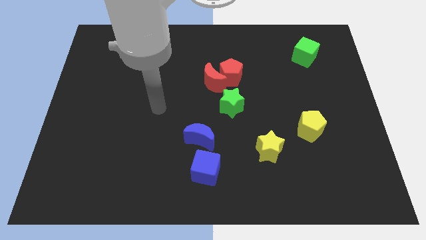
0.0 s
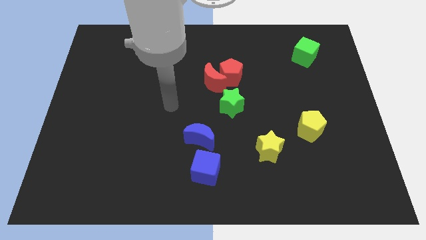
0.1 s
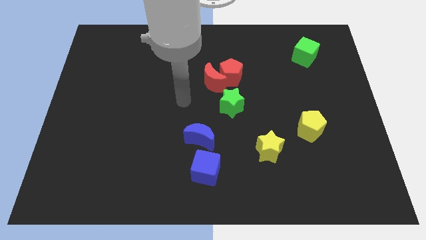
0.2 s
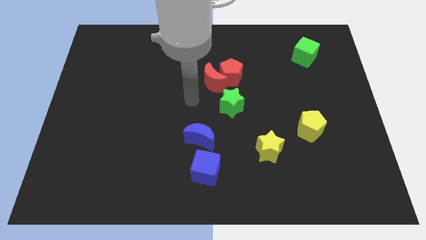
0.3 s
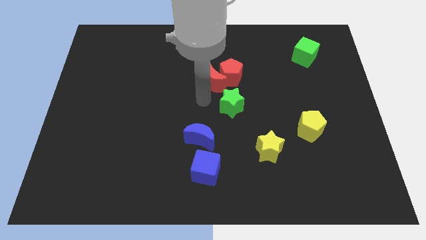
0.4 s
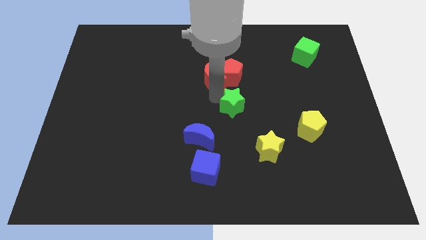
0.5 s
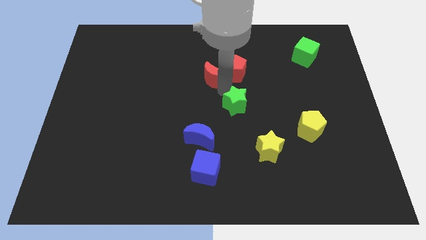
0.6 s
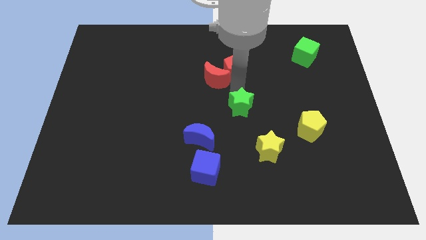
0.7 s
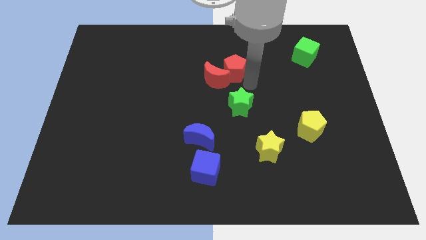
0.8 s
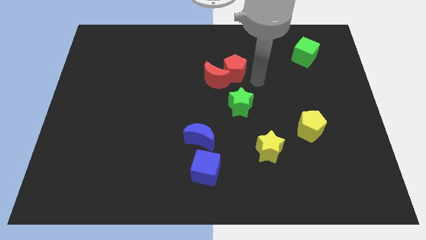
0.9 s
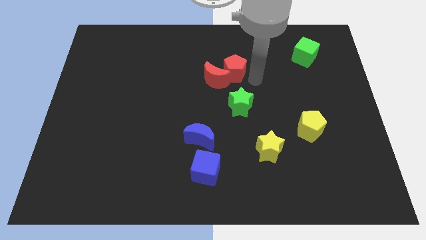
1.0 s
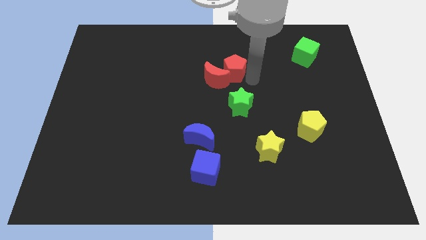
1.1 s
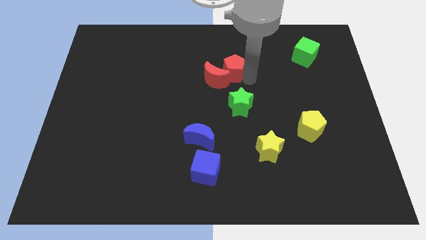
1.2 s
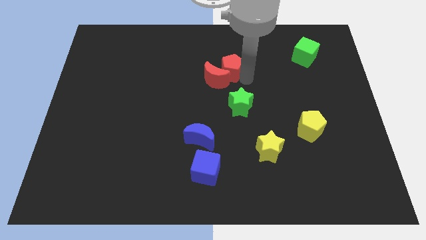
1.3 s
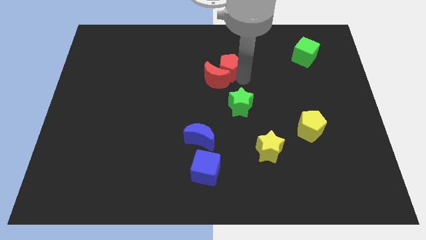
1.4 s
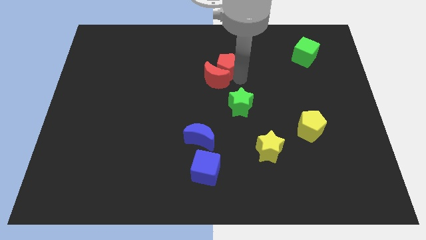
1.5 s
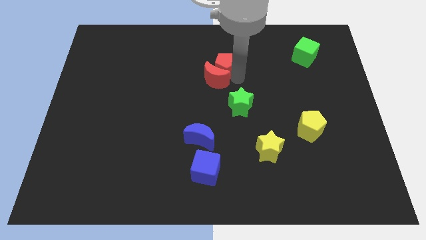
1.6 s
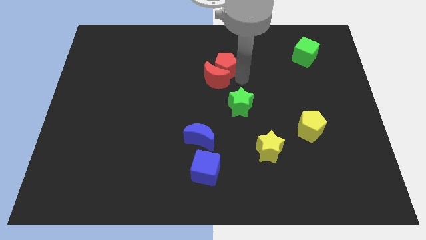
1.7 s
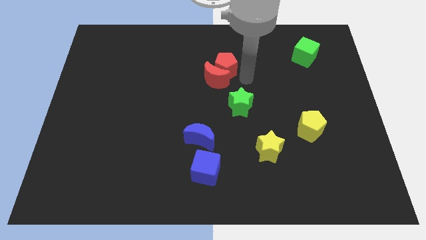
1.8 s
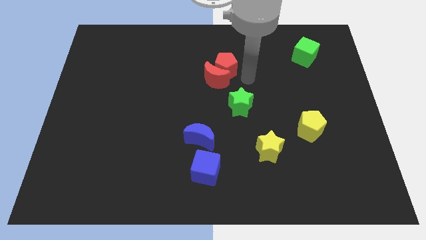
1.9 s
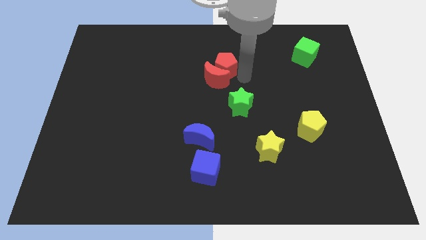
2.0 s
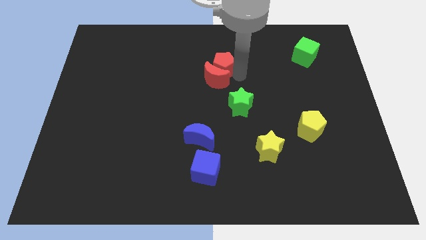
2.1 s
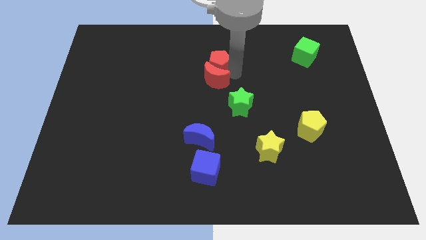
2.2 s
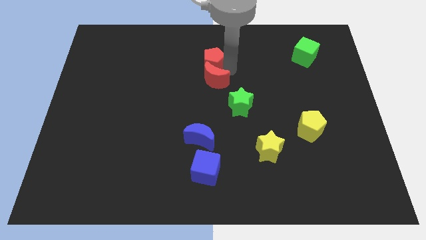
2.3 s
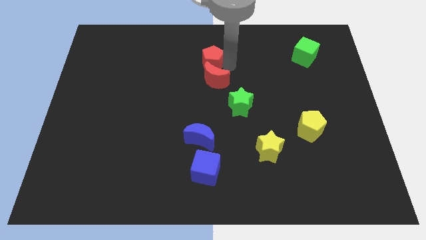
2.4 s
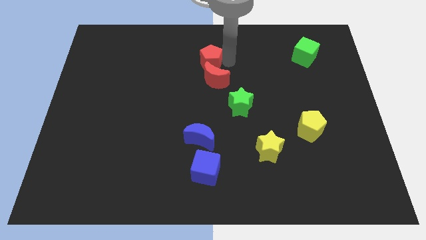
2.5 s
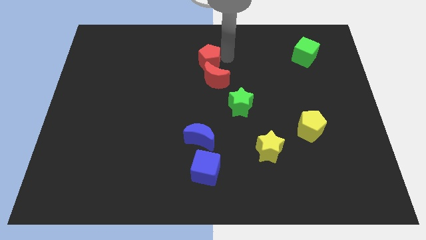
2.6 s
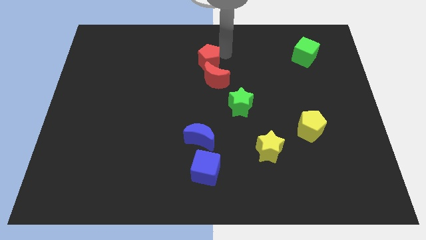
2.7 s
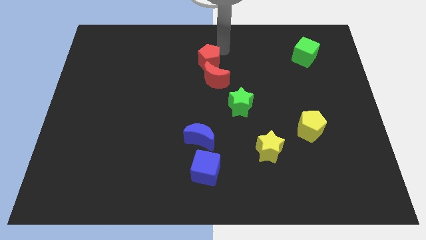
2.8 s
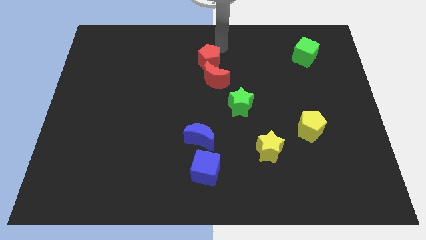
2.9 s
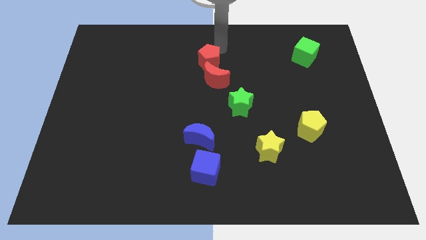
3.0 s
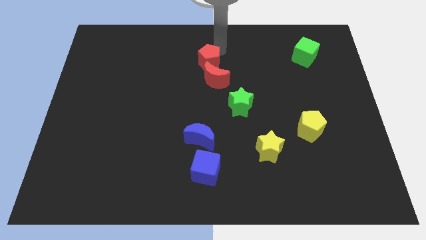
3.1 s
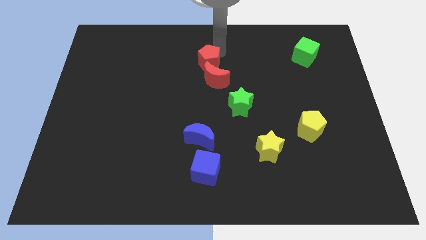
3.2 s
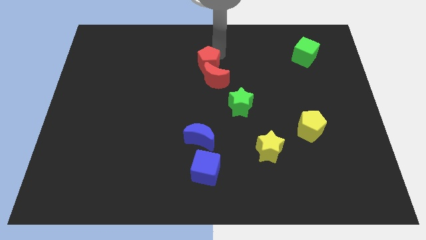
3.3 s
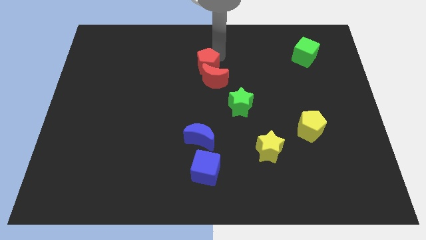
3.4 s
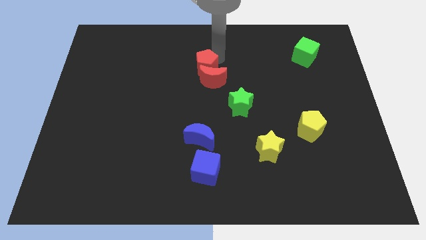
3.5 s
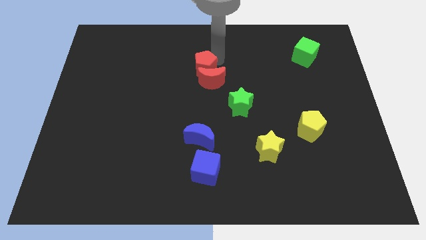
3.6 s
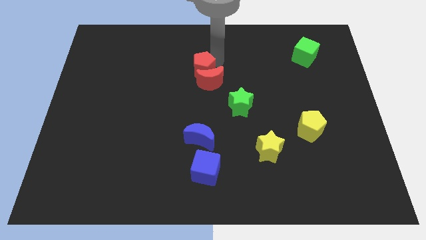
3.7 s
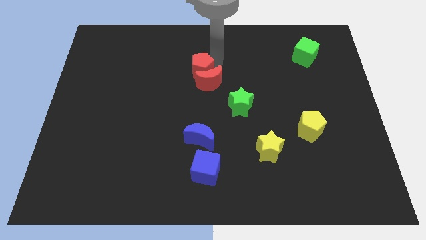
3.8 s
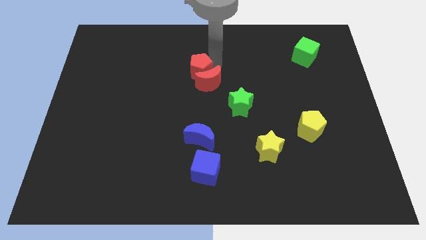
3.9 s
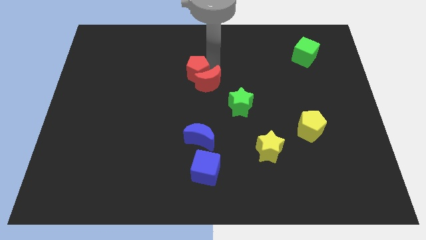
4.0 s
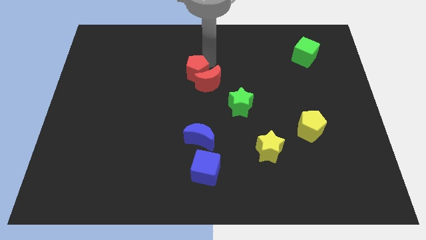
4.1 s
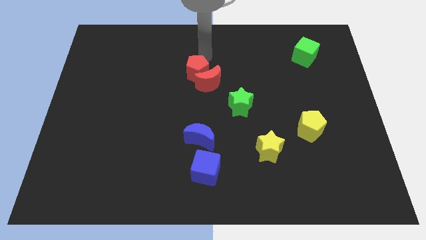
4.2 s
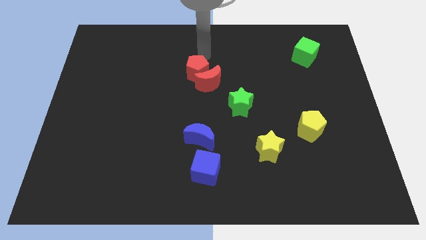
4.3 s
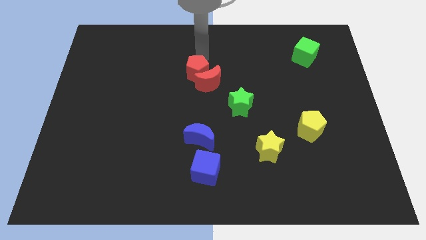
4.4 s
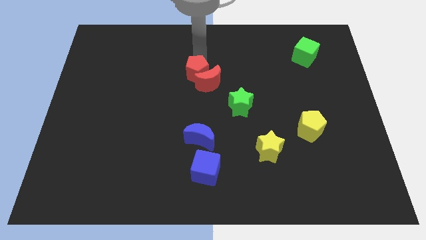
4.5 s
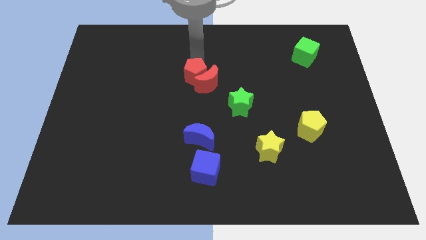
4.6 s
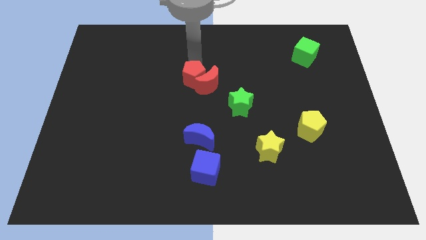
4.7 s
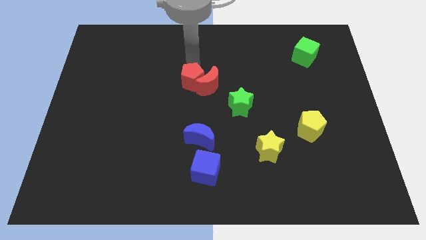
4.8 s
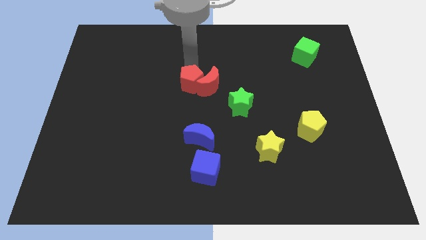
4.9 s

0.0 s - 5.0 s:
move the red pentagon a bit down and then left

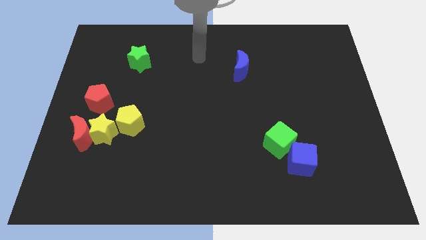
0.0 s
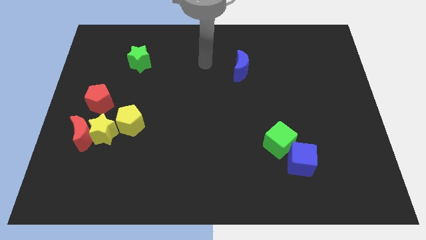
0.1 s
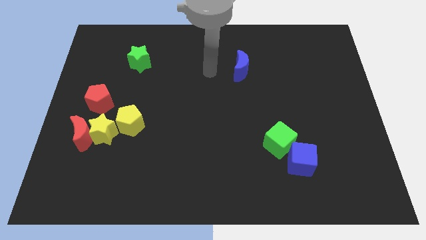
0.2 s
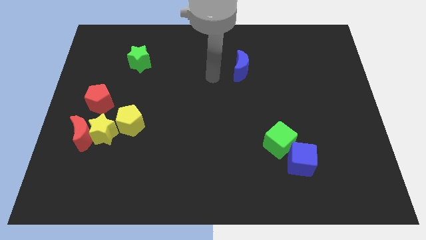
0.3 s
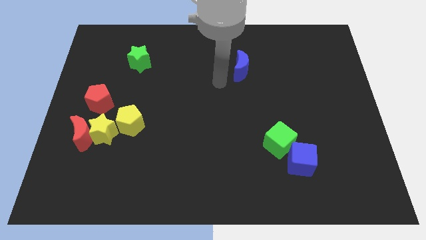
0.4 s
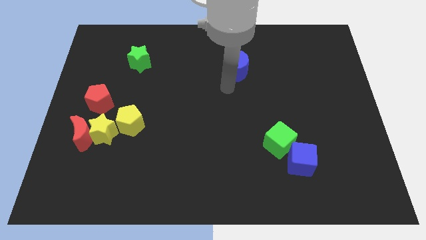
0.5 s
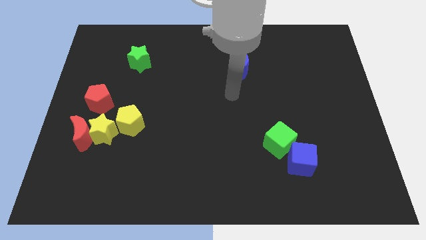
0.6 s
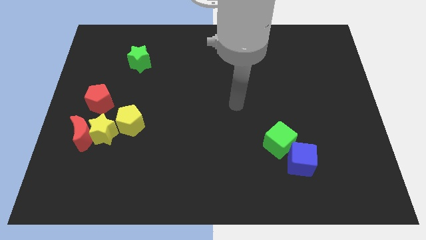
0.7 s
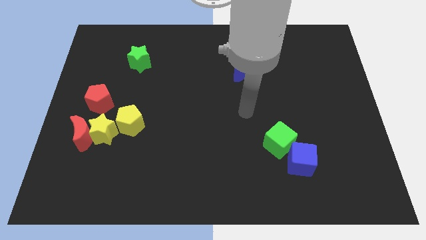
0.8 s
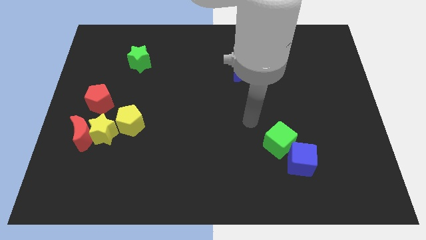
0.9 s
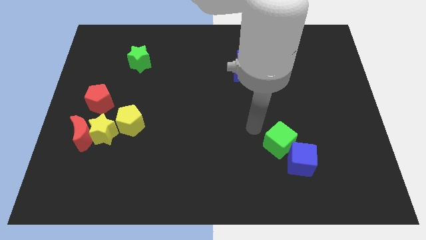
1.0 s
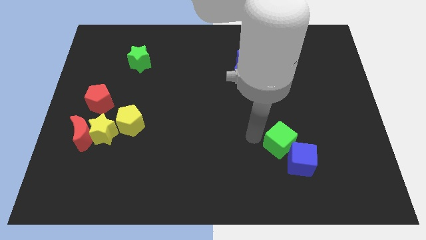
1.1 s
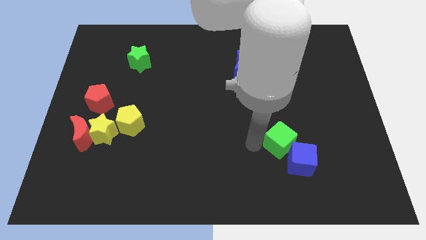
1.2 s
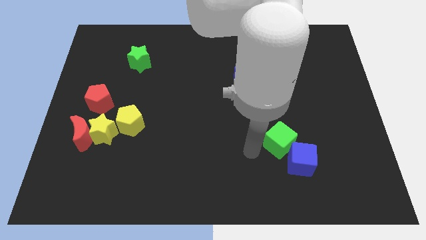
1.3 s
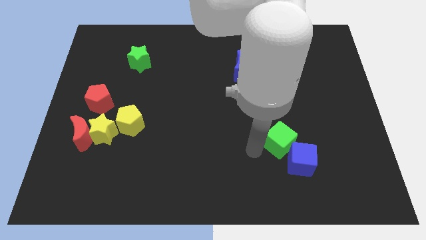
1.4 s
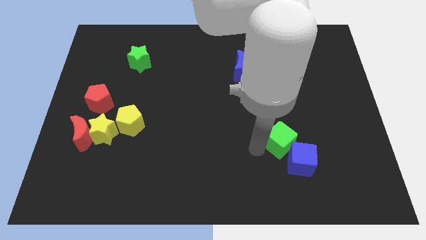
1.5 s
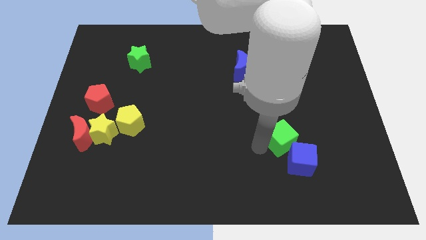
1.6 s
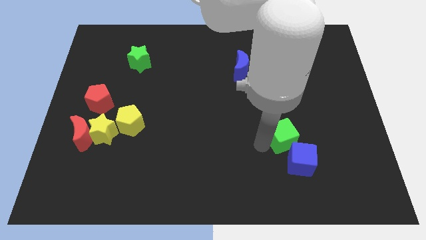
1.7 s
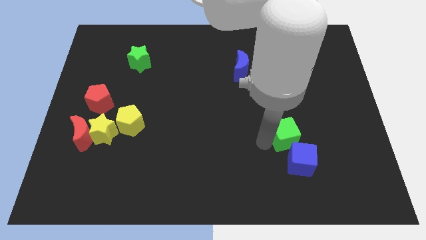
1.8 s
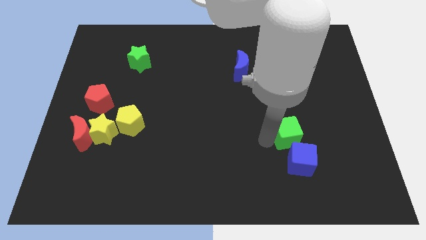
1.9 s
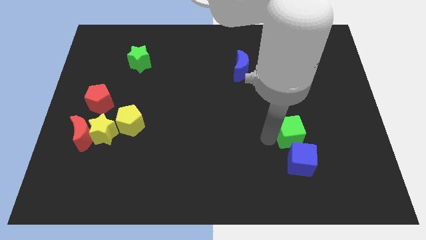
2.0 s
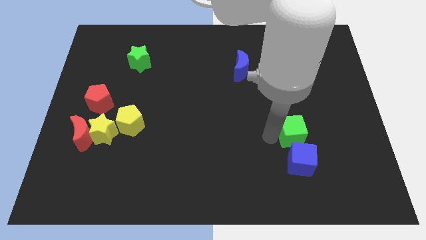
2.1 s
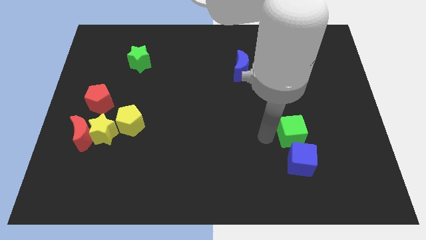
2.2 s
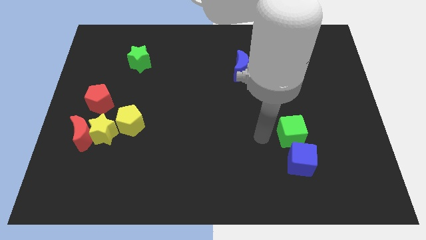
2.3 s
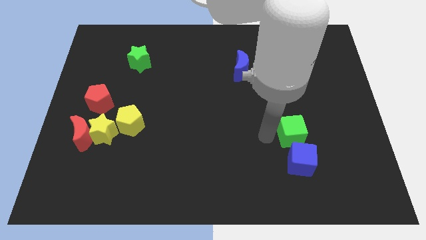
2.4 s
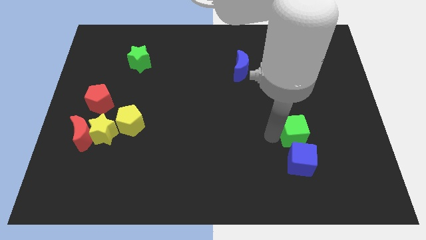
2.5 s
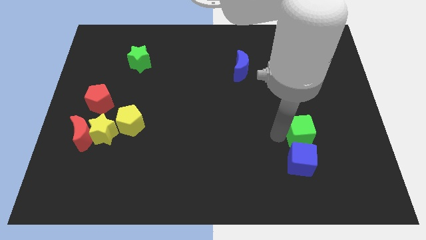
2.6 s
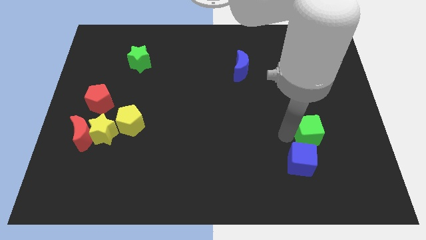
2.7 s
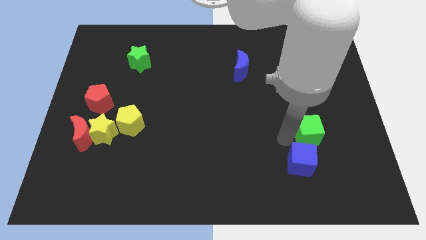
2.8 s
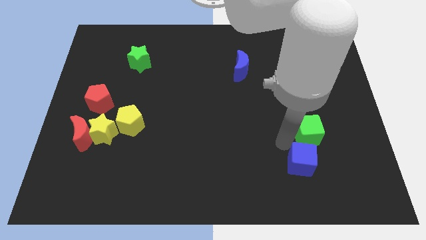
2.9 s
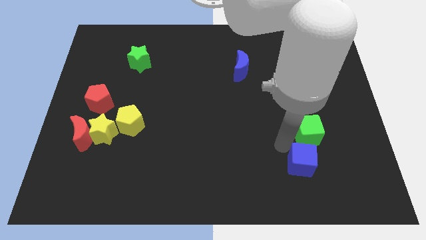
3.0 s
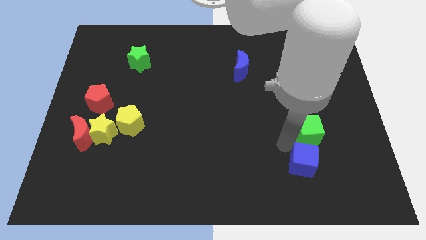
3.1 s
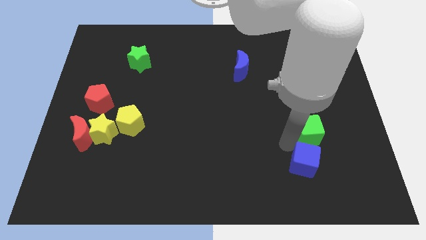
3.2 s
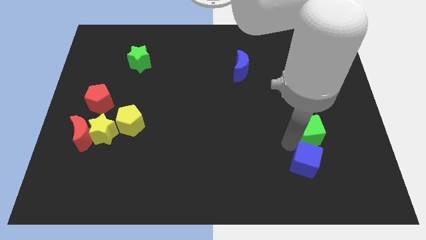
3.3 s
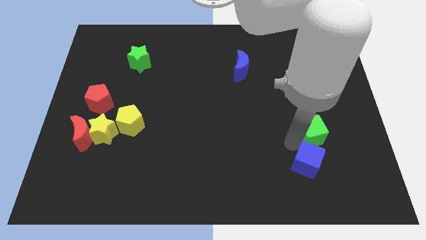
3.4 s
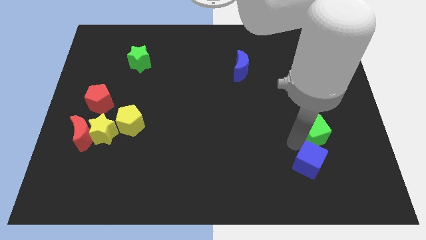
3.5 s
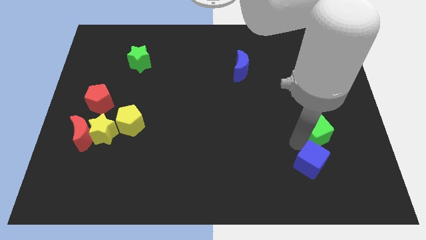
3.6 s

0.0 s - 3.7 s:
slide the green cube up and right a little bit
